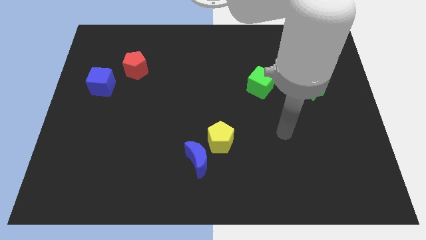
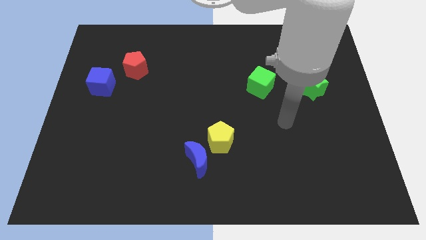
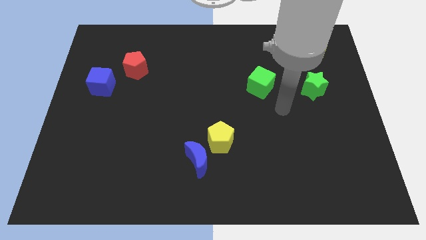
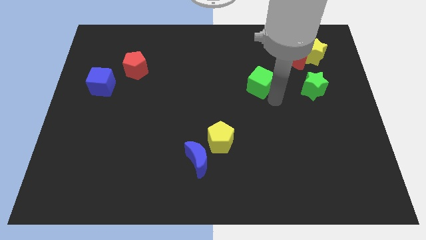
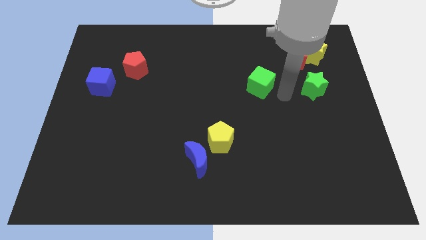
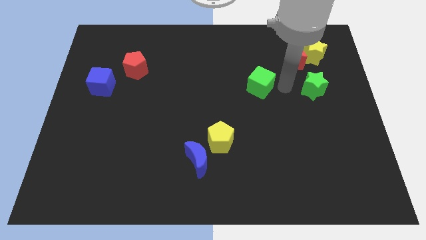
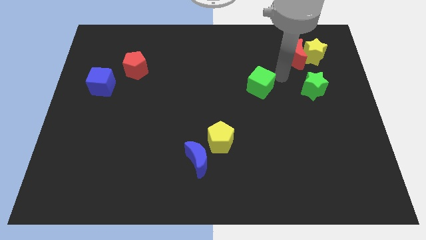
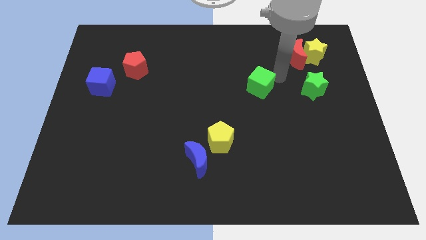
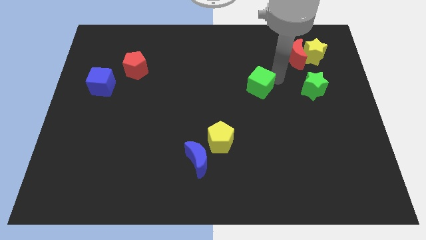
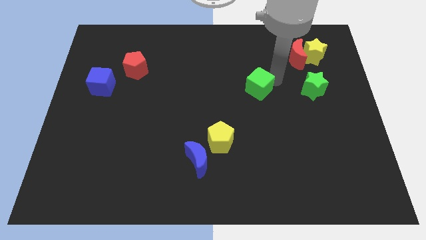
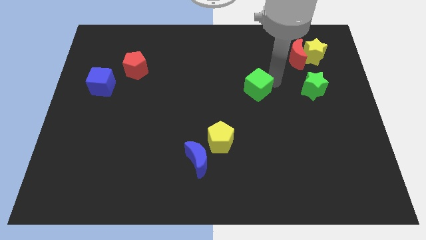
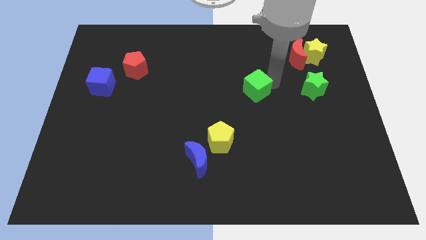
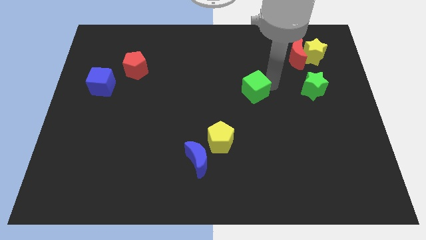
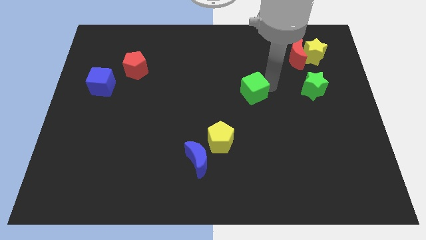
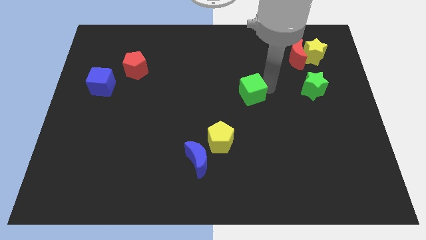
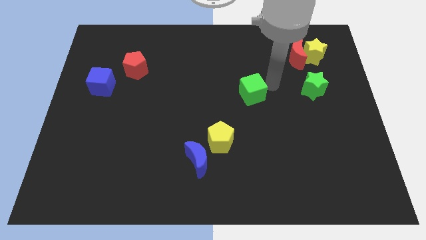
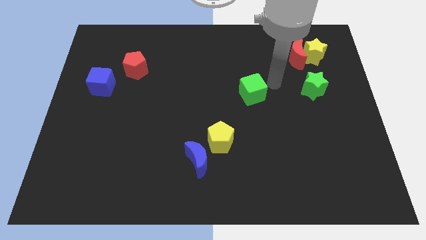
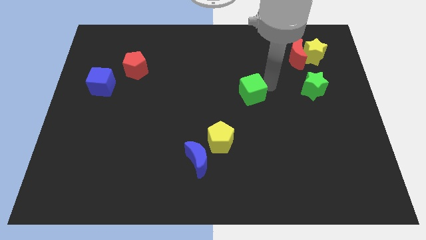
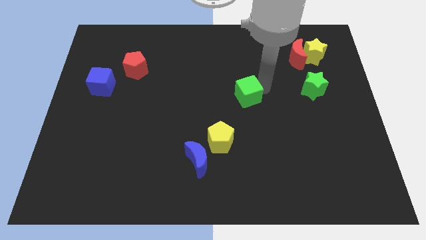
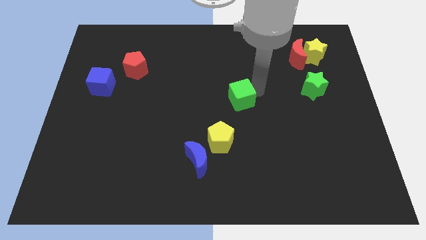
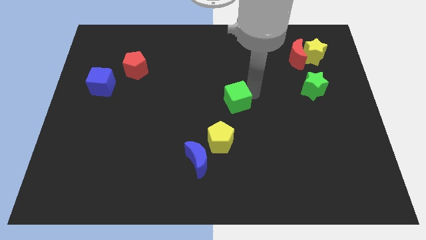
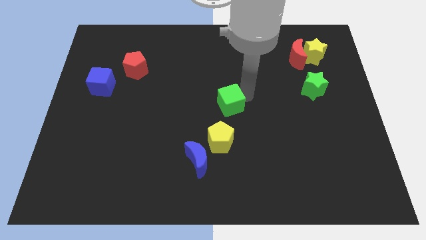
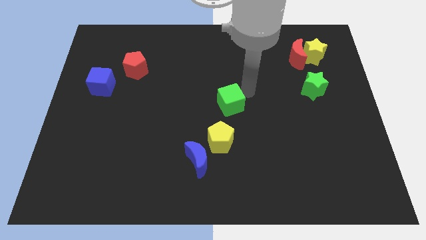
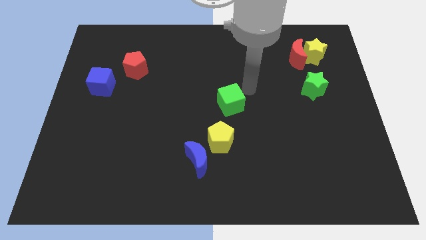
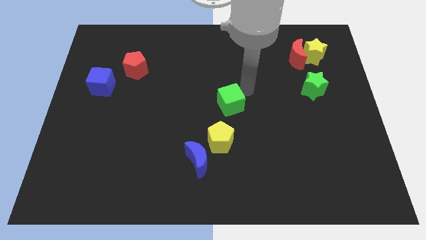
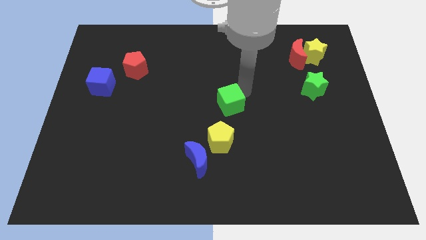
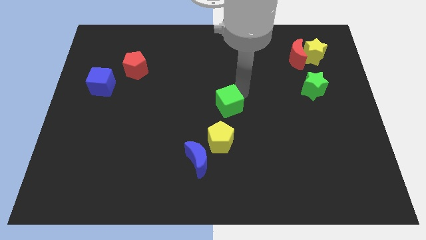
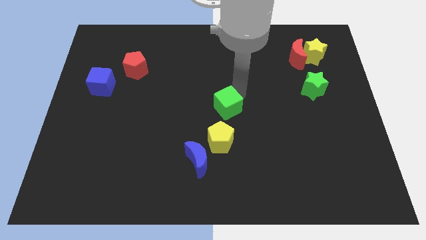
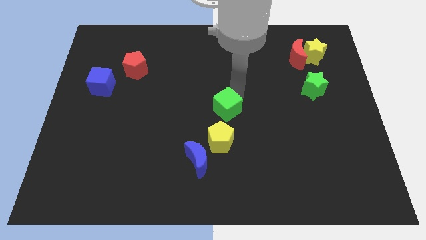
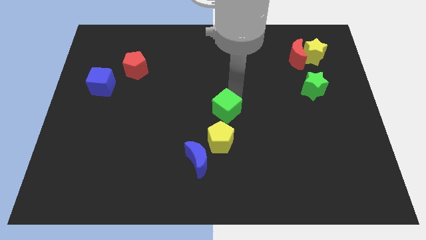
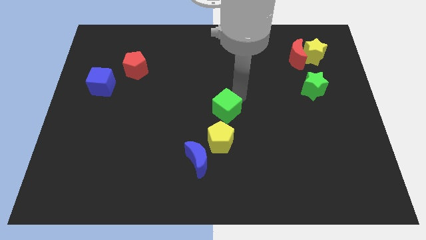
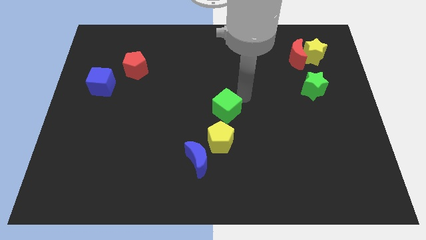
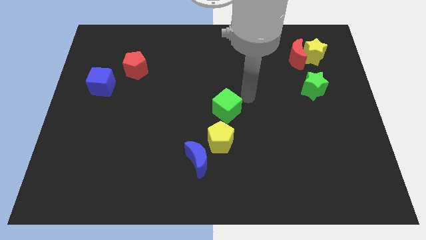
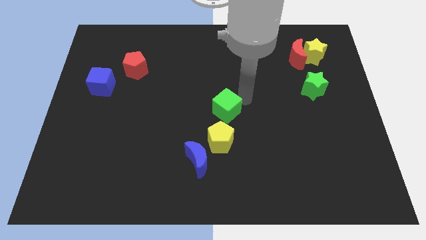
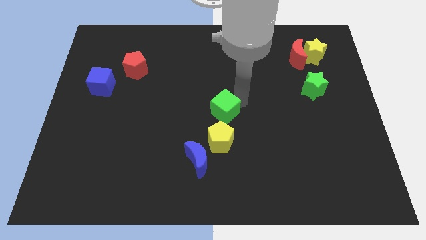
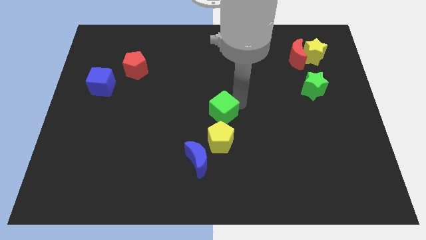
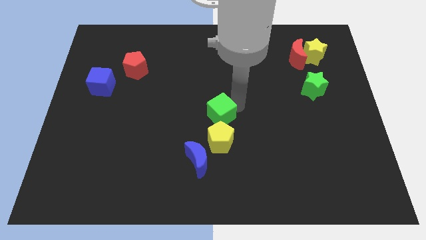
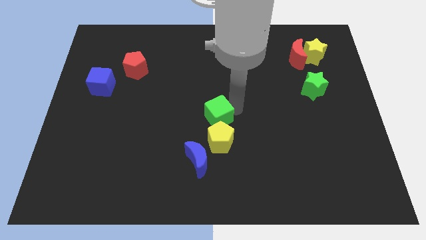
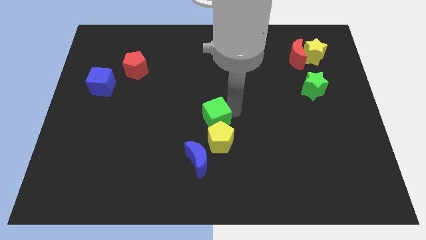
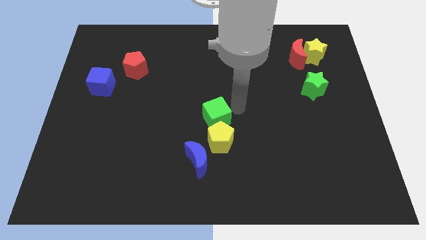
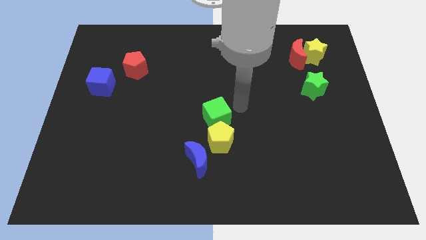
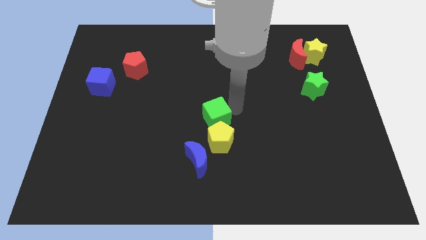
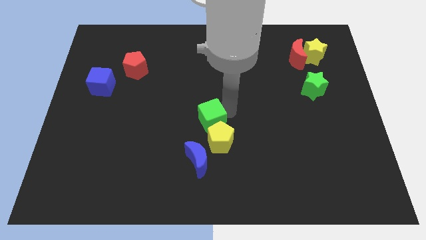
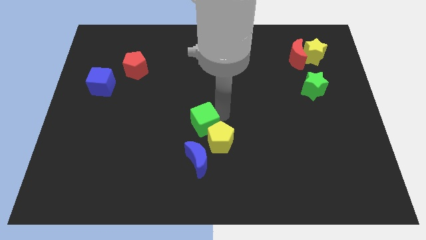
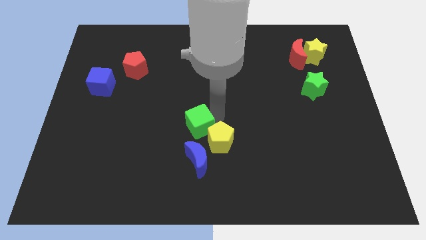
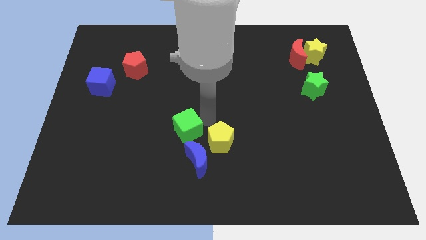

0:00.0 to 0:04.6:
move the green cube downwards and then left

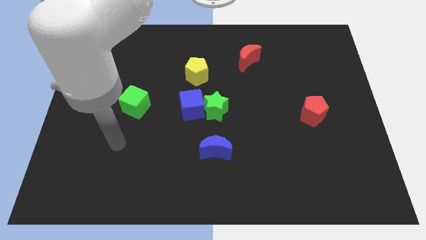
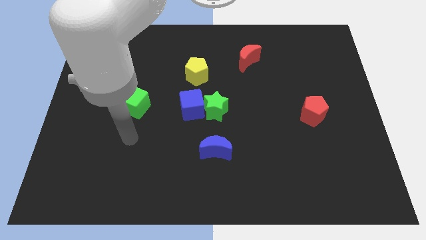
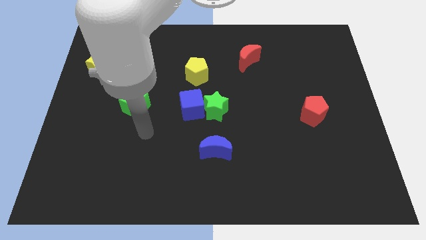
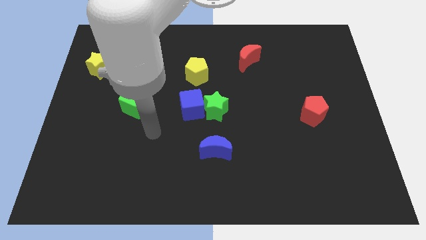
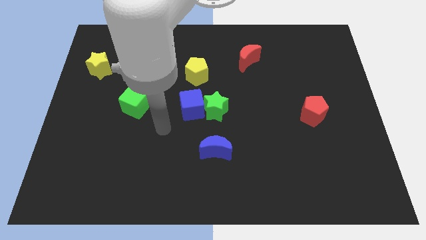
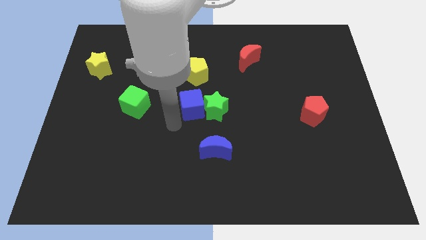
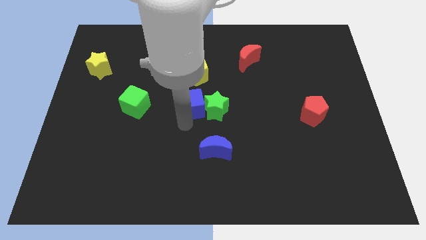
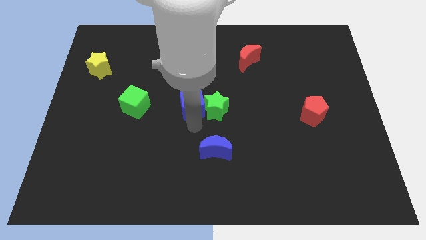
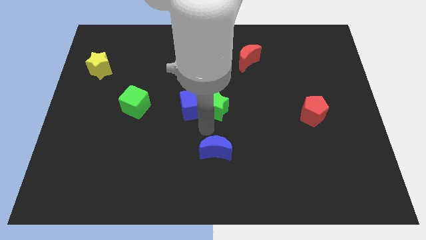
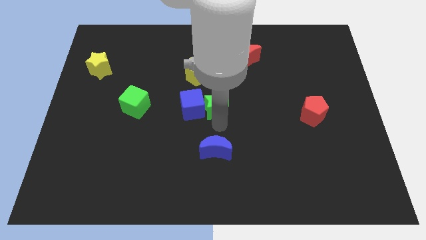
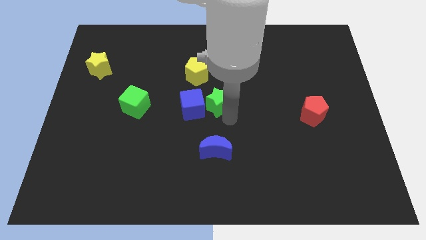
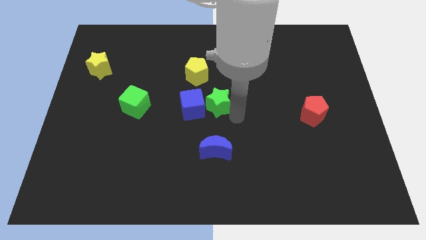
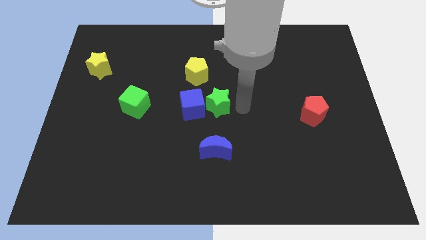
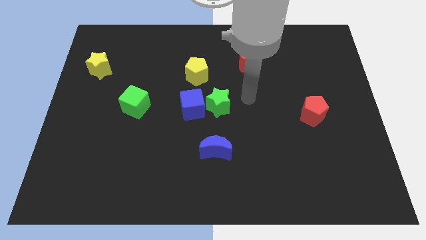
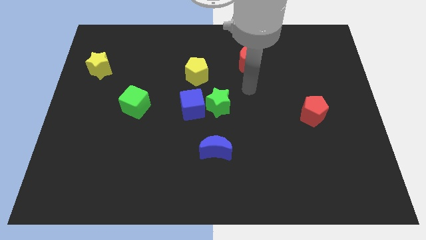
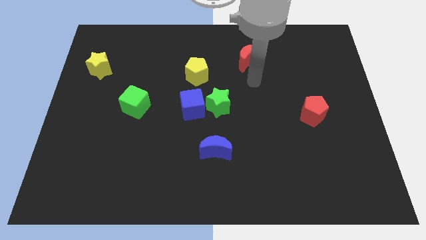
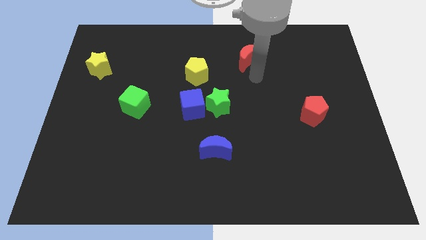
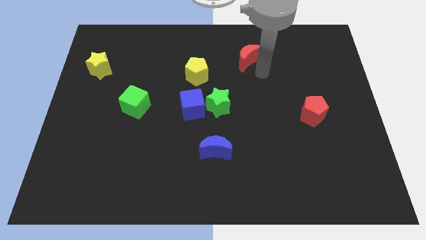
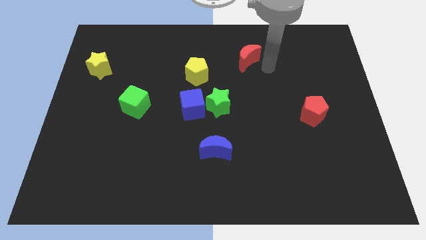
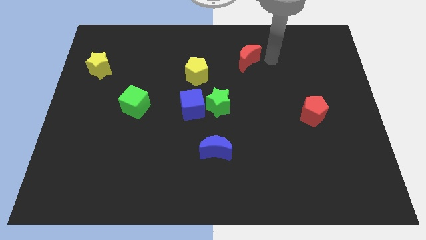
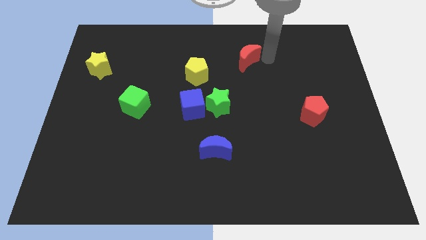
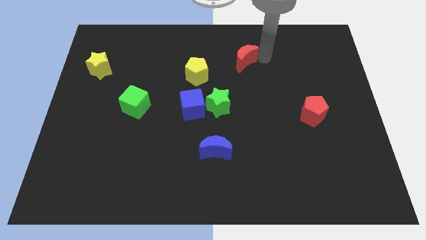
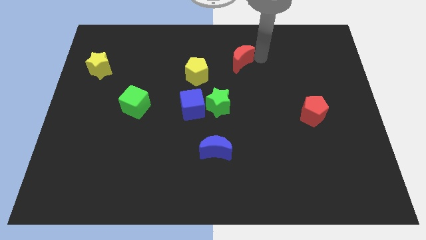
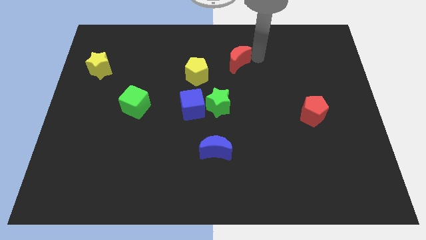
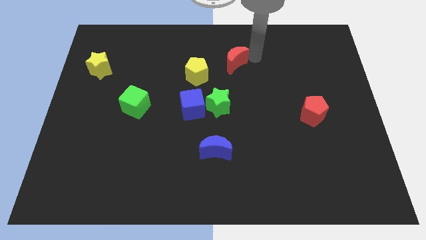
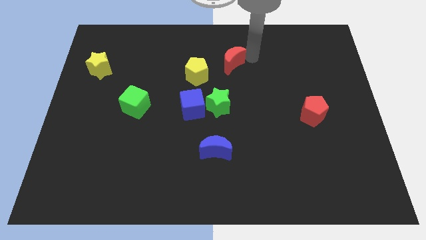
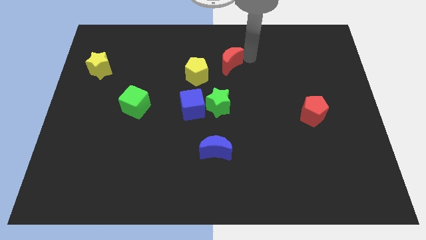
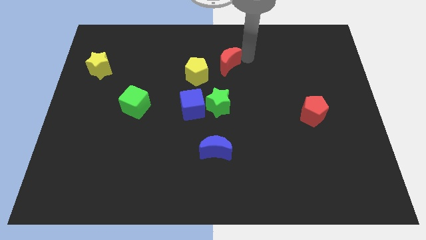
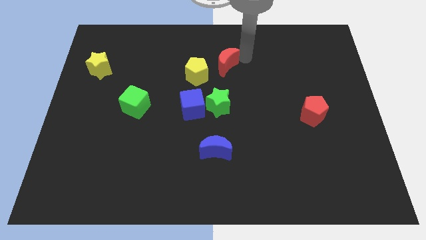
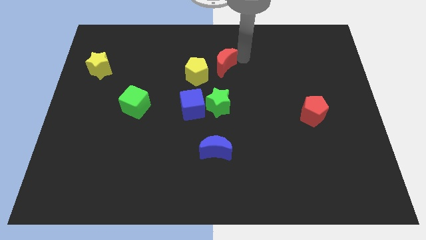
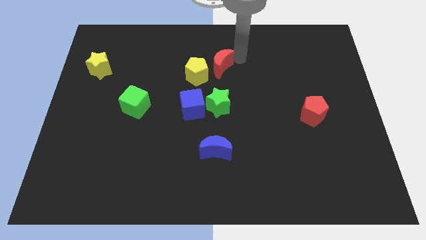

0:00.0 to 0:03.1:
slightly push the red moon left

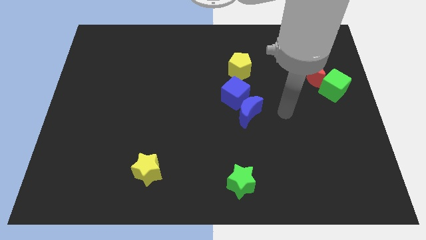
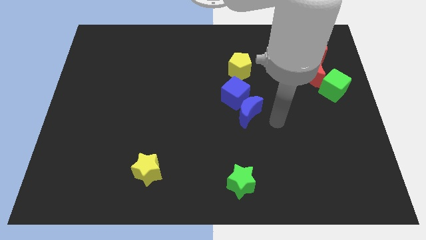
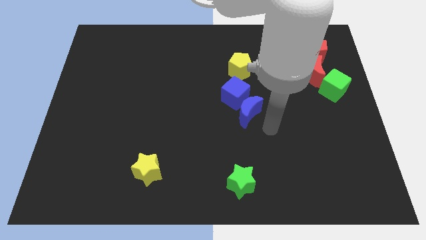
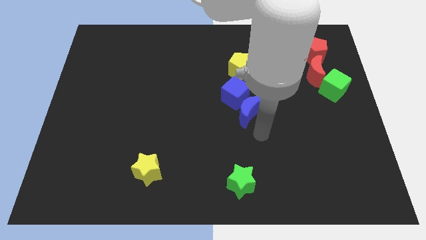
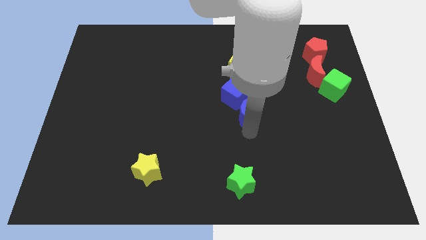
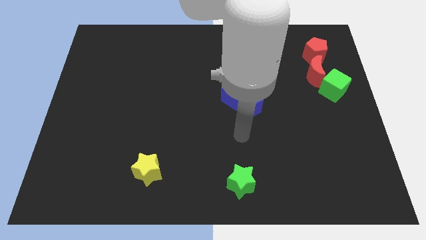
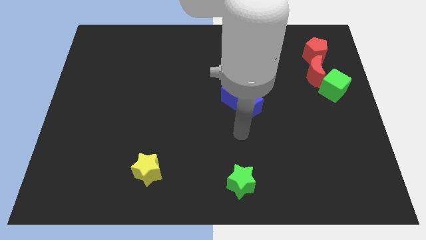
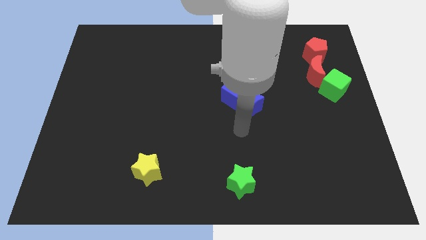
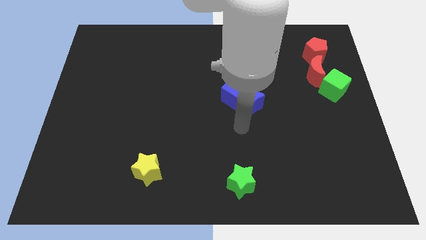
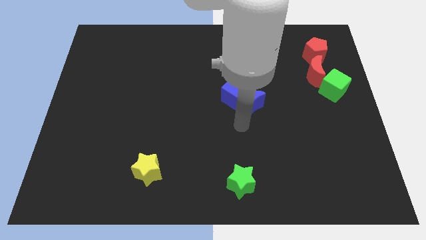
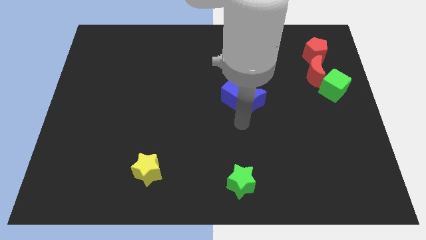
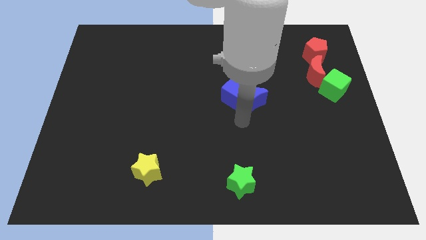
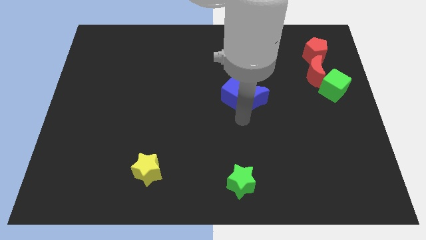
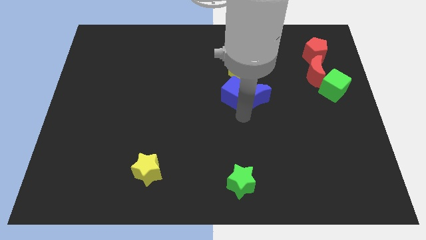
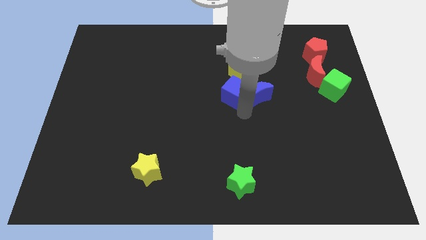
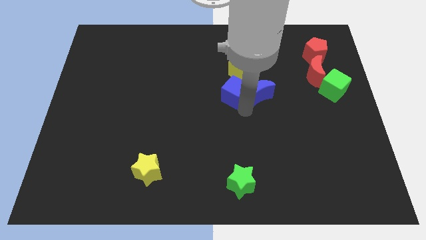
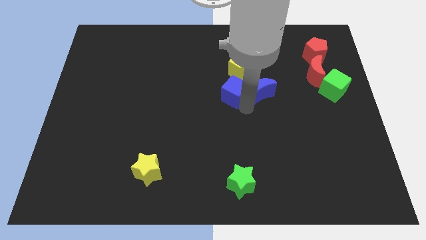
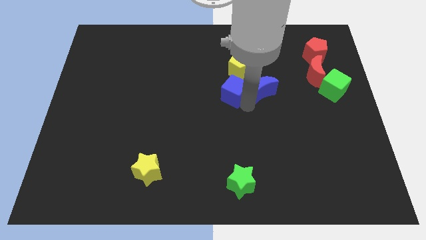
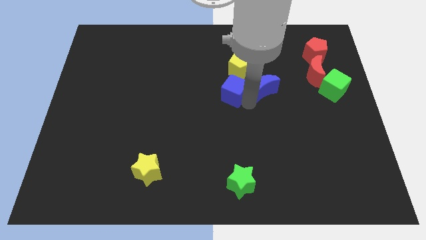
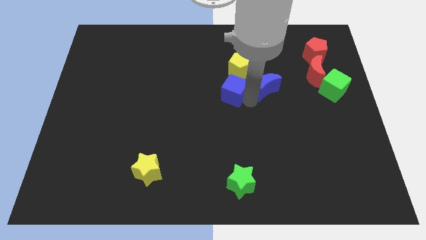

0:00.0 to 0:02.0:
slightly move the blue moon up
